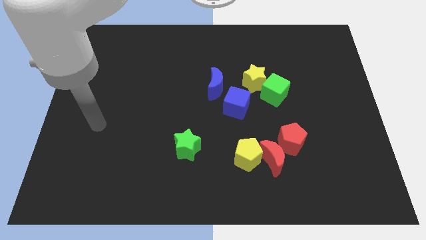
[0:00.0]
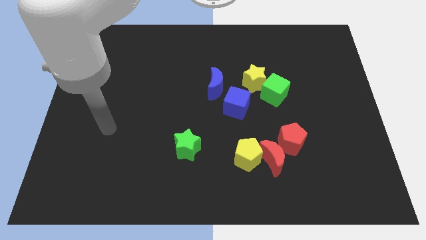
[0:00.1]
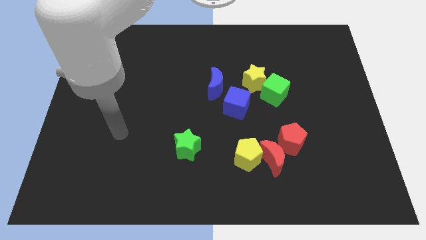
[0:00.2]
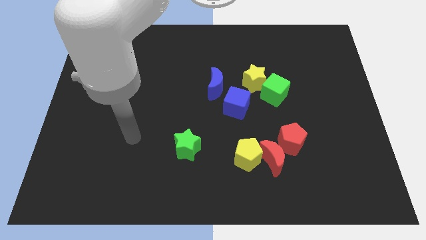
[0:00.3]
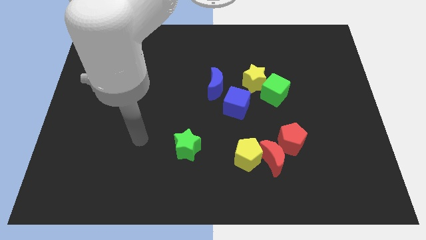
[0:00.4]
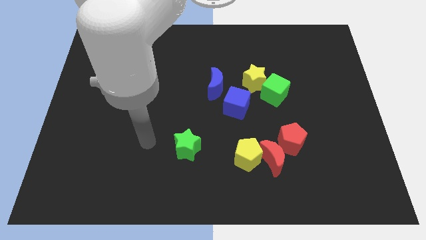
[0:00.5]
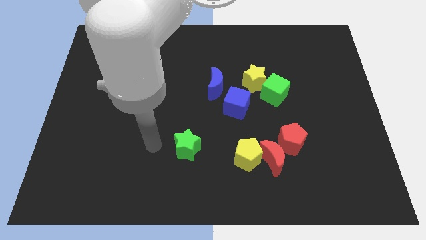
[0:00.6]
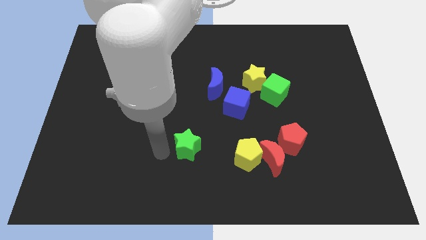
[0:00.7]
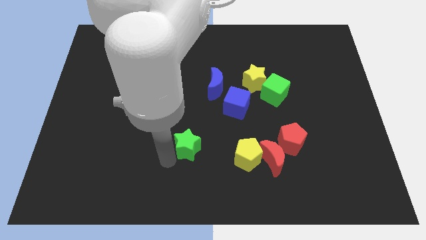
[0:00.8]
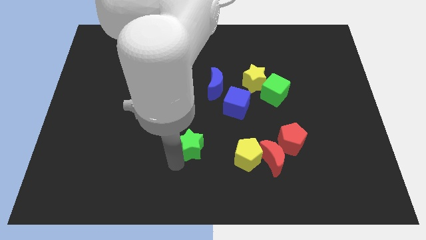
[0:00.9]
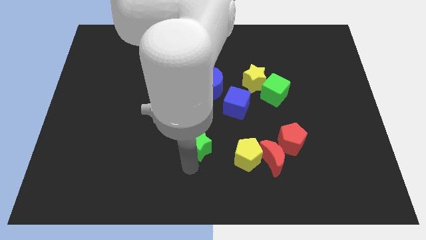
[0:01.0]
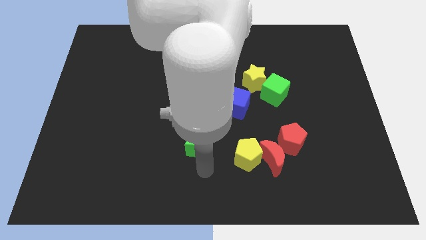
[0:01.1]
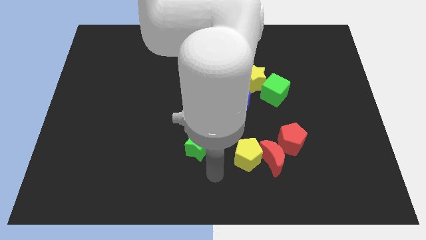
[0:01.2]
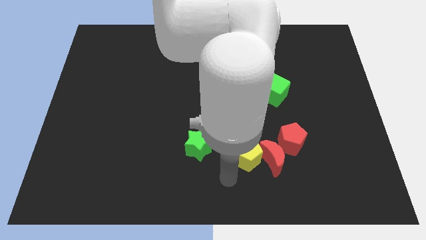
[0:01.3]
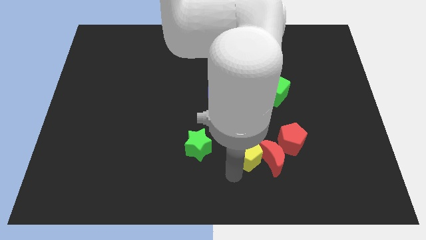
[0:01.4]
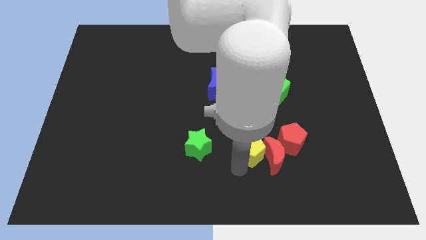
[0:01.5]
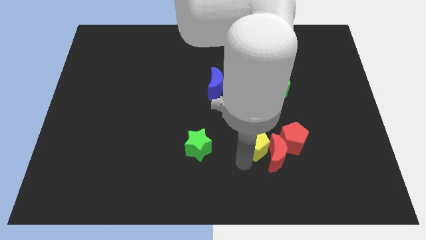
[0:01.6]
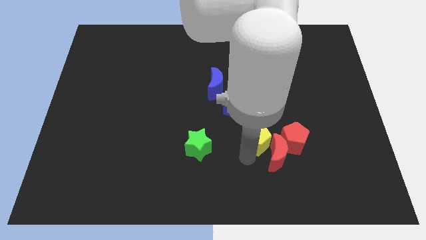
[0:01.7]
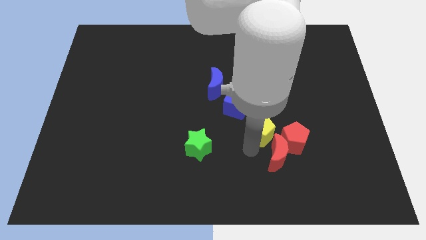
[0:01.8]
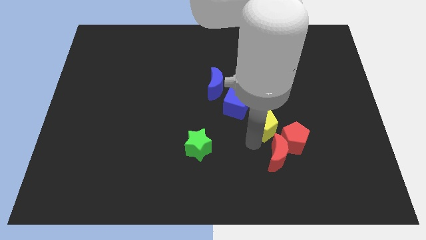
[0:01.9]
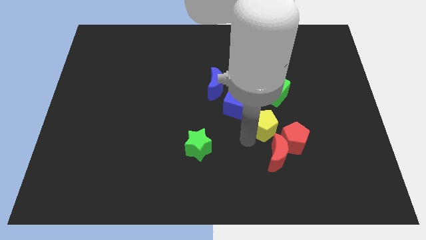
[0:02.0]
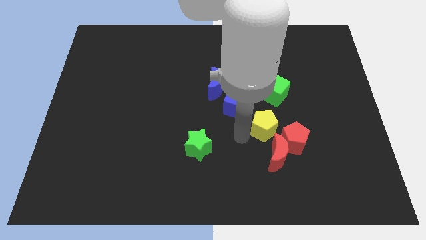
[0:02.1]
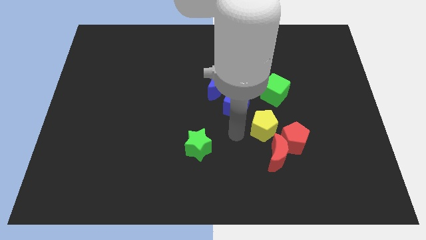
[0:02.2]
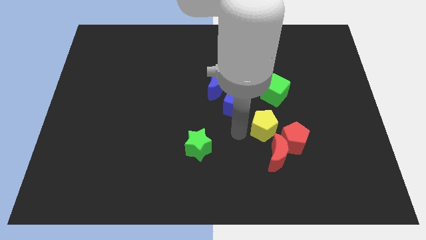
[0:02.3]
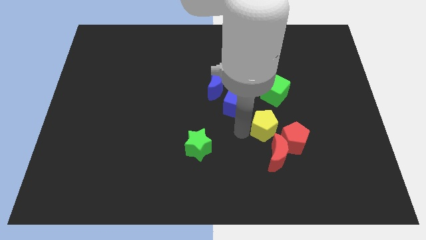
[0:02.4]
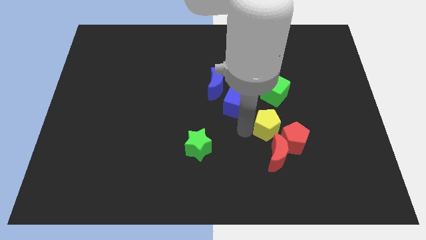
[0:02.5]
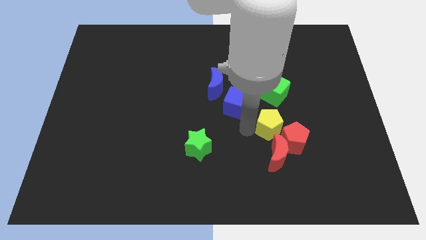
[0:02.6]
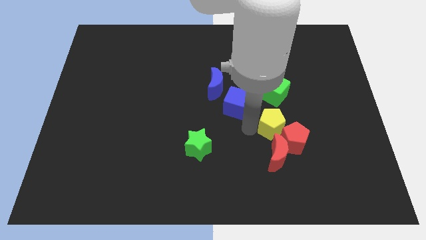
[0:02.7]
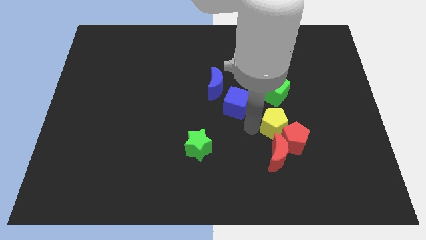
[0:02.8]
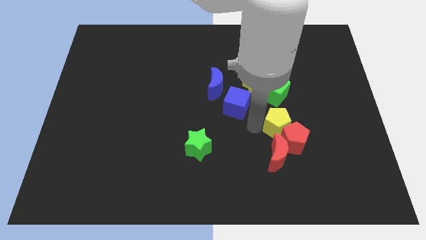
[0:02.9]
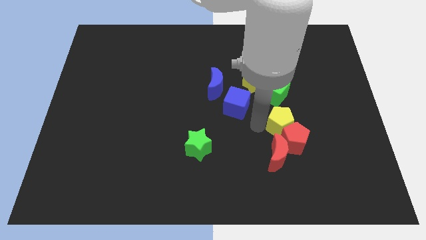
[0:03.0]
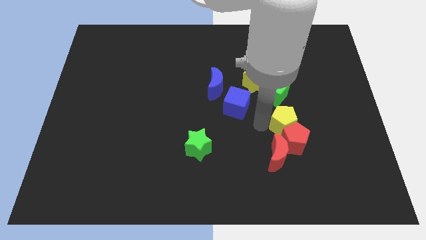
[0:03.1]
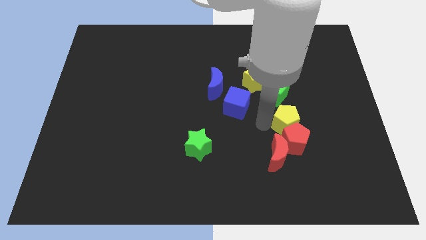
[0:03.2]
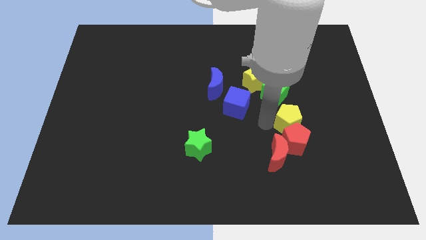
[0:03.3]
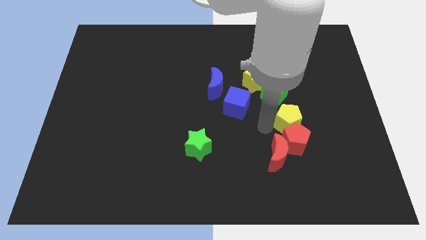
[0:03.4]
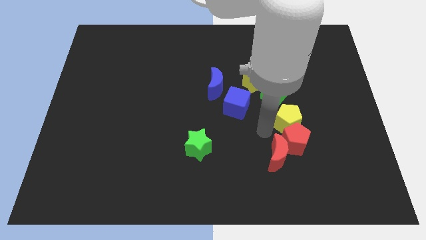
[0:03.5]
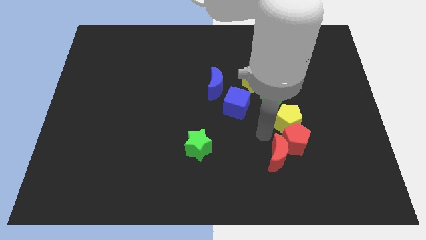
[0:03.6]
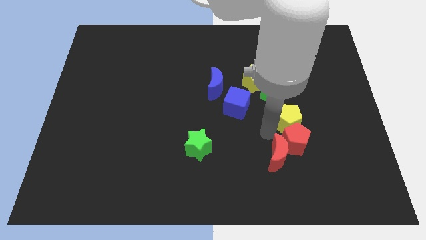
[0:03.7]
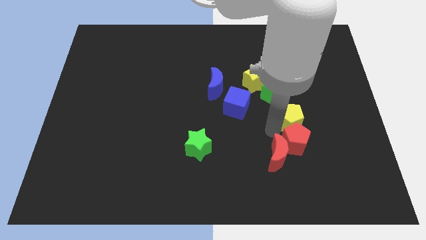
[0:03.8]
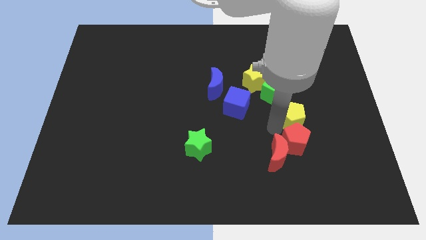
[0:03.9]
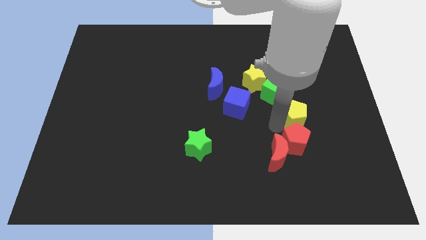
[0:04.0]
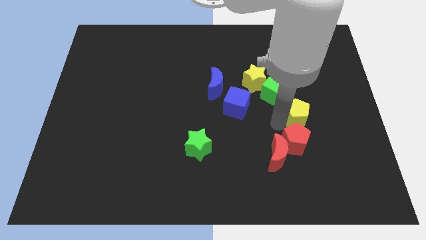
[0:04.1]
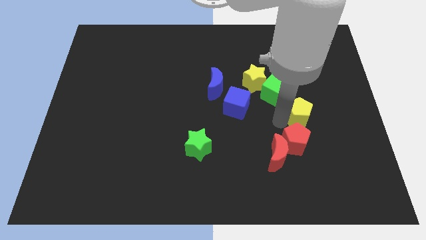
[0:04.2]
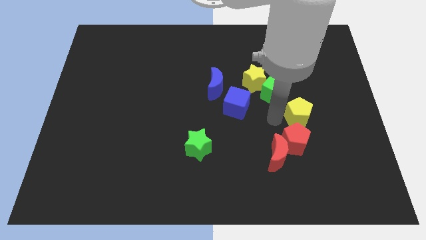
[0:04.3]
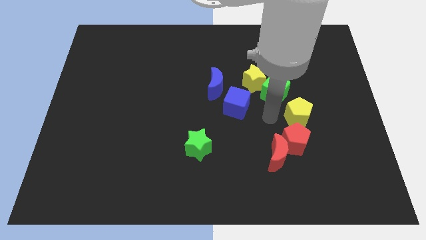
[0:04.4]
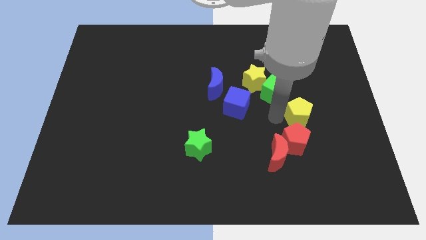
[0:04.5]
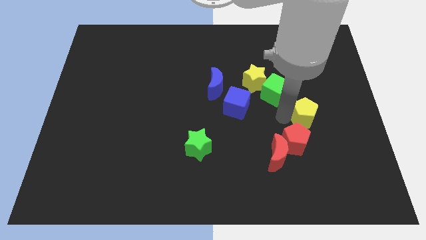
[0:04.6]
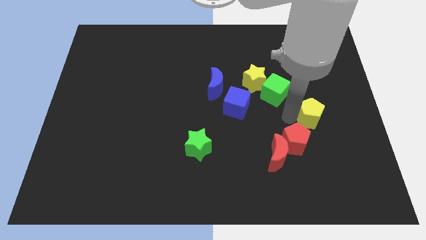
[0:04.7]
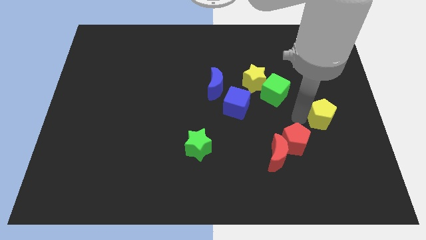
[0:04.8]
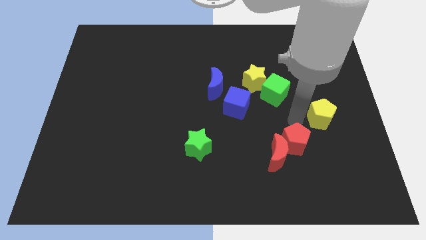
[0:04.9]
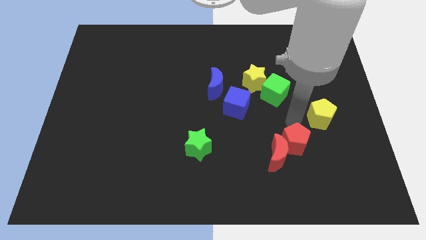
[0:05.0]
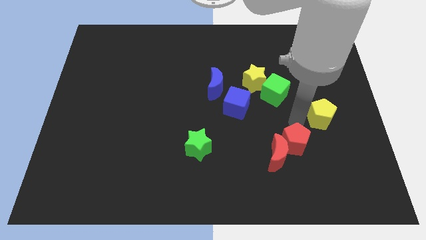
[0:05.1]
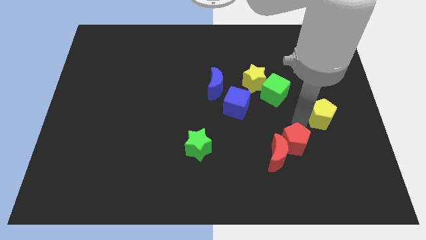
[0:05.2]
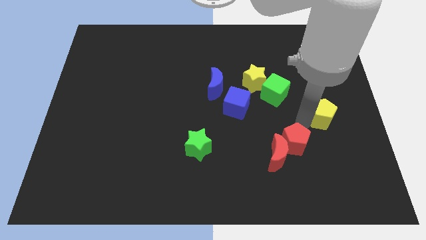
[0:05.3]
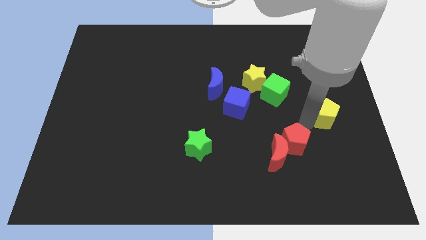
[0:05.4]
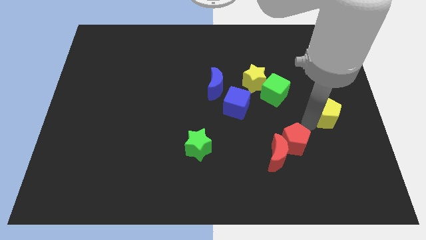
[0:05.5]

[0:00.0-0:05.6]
push the yellow pentagon to the right side

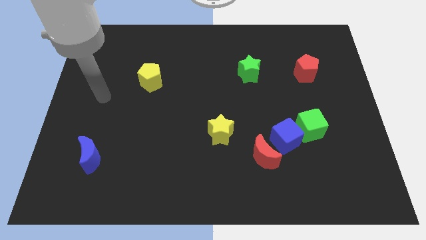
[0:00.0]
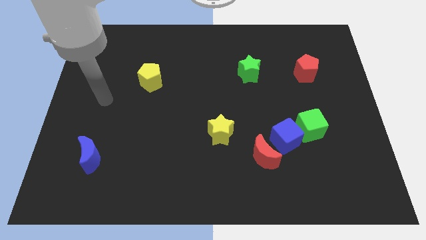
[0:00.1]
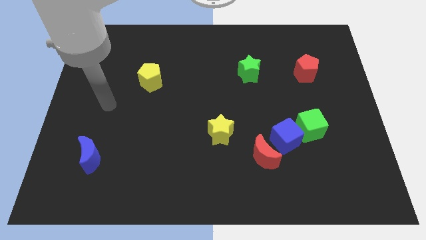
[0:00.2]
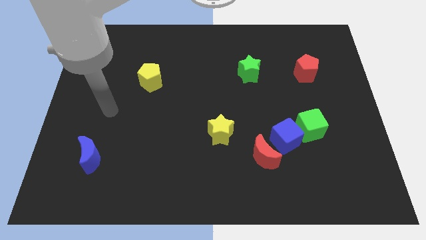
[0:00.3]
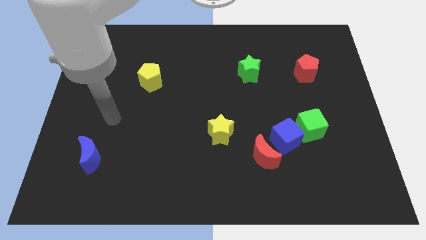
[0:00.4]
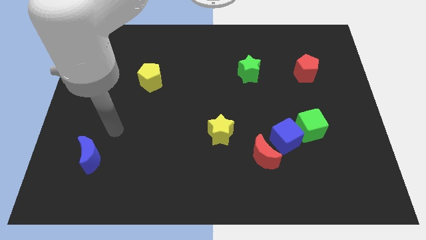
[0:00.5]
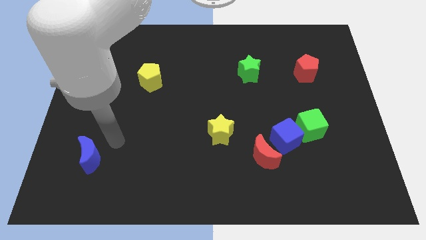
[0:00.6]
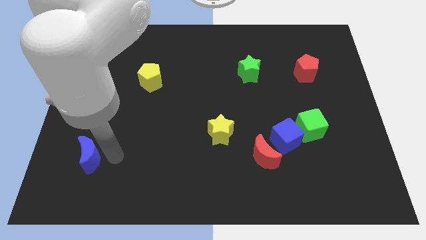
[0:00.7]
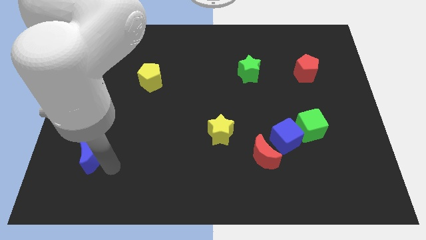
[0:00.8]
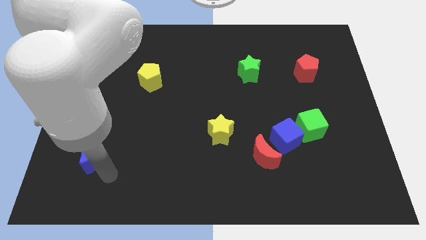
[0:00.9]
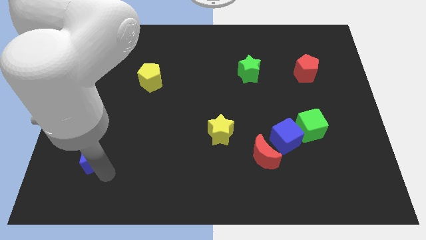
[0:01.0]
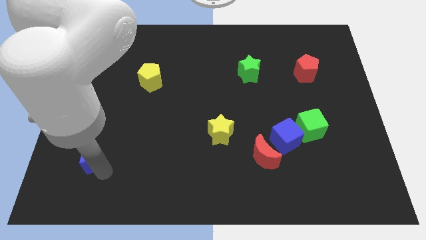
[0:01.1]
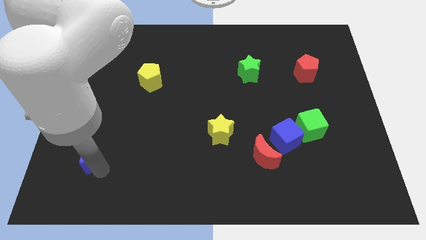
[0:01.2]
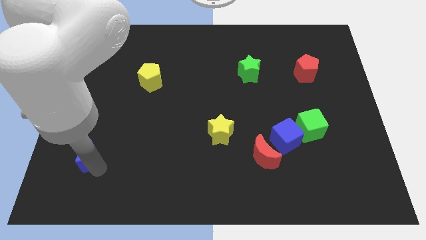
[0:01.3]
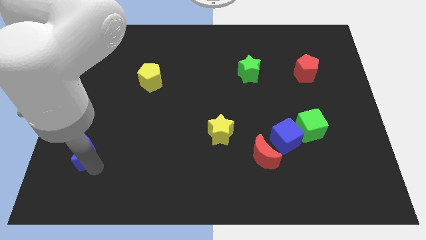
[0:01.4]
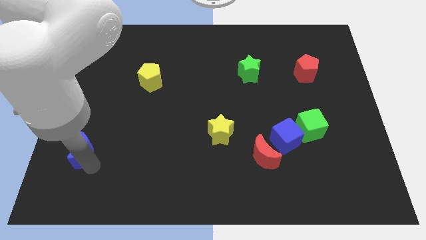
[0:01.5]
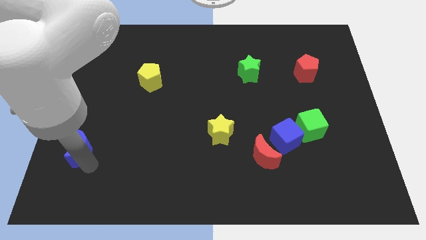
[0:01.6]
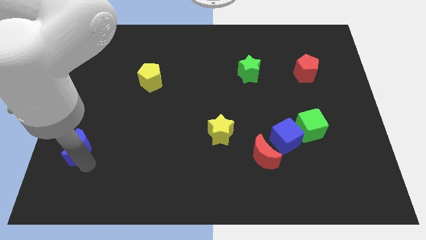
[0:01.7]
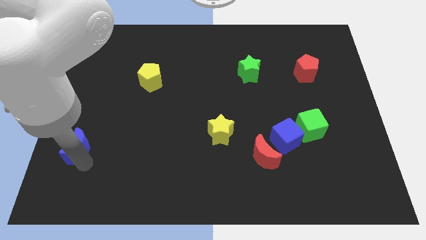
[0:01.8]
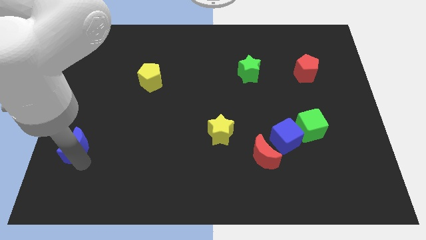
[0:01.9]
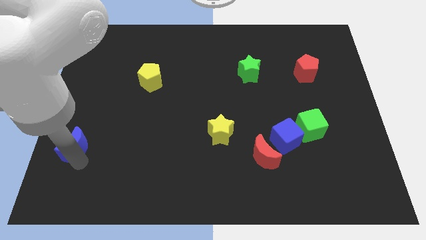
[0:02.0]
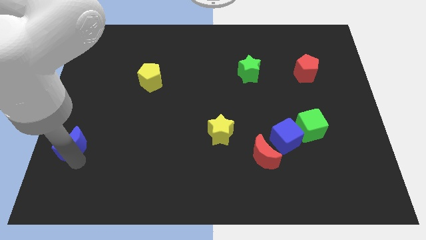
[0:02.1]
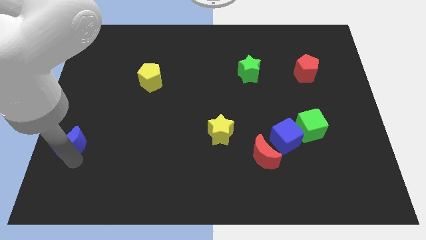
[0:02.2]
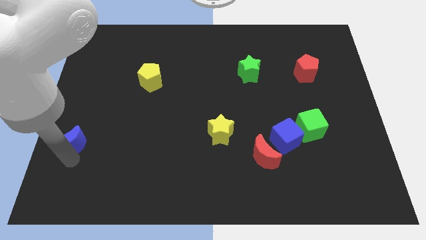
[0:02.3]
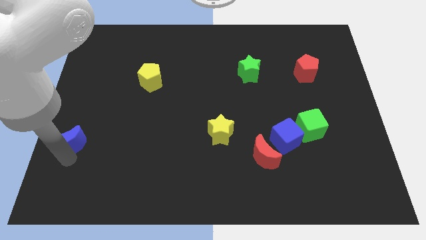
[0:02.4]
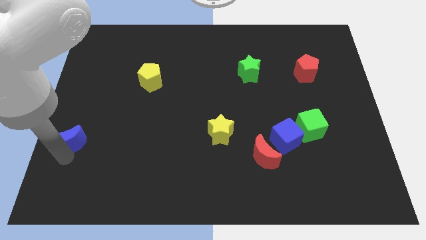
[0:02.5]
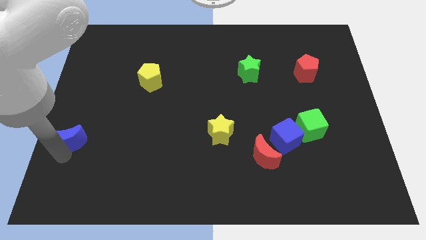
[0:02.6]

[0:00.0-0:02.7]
push the blue moon to the left side of the board
